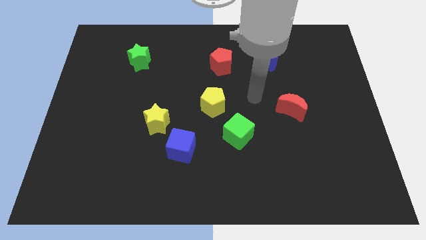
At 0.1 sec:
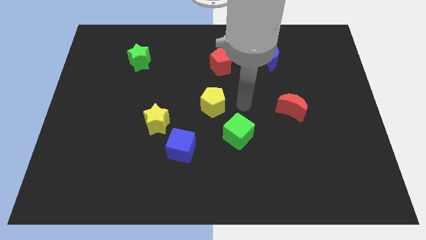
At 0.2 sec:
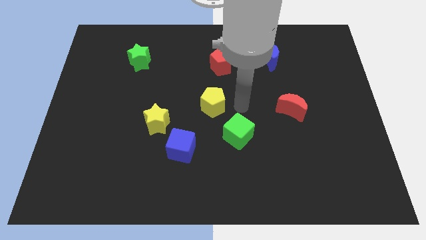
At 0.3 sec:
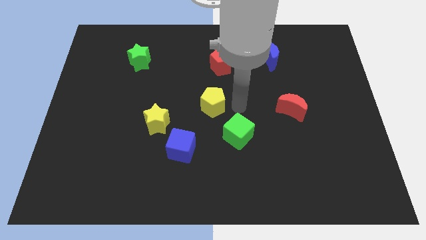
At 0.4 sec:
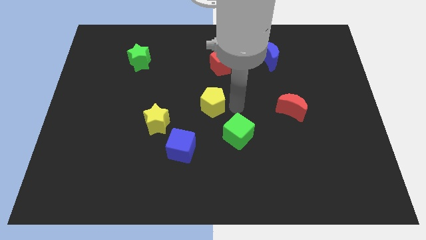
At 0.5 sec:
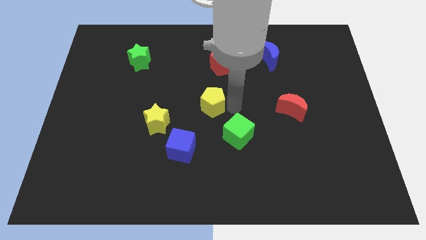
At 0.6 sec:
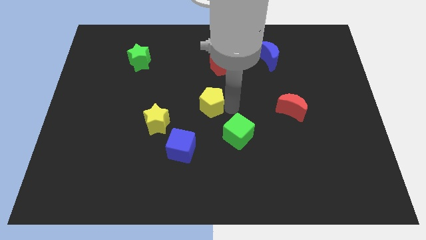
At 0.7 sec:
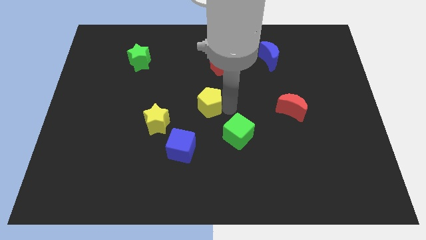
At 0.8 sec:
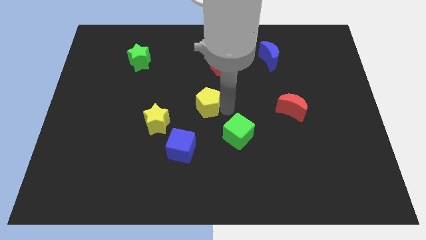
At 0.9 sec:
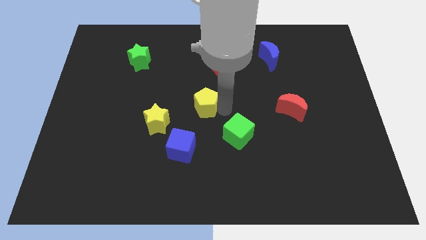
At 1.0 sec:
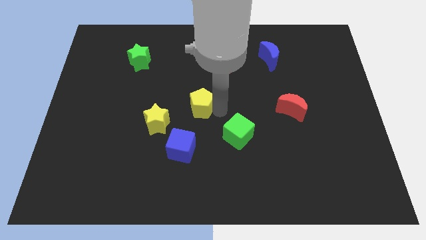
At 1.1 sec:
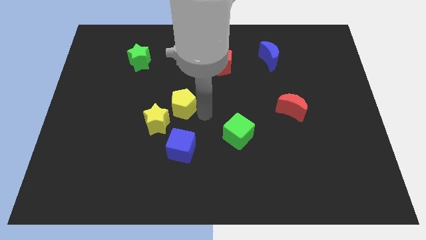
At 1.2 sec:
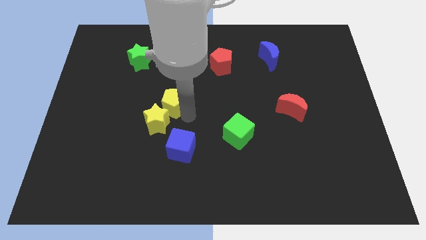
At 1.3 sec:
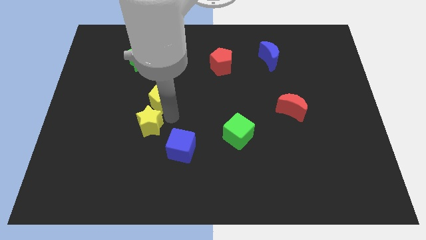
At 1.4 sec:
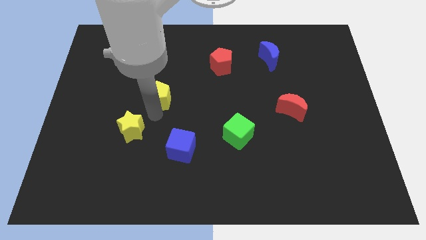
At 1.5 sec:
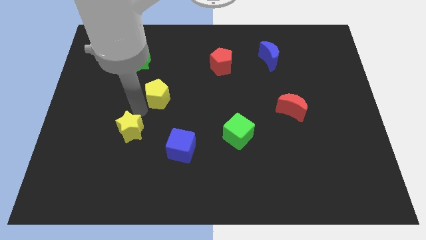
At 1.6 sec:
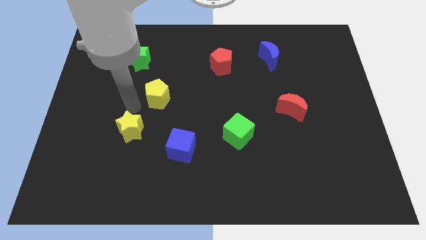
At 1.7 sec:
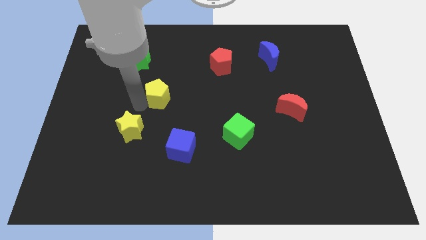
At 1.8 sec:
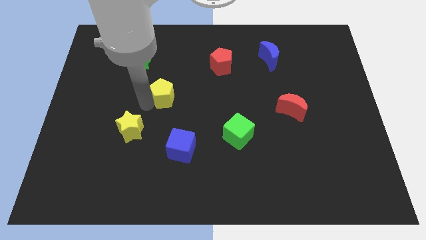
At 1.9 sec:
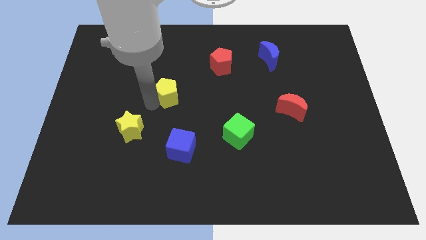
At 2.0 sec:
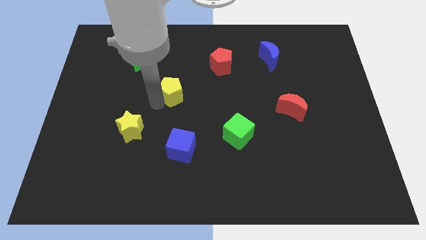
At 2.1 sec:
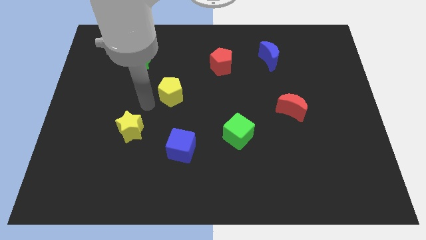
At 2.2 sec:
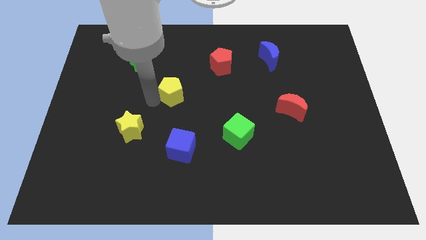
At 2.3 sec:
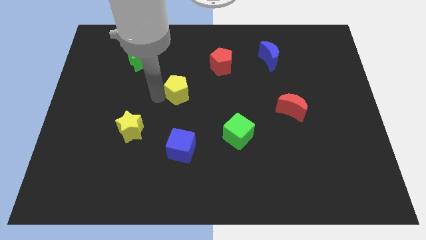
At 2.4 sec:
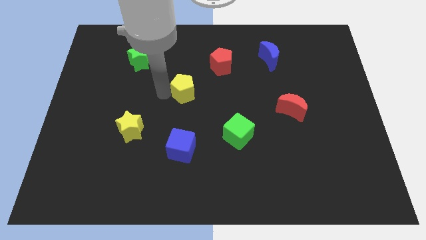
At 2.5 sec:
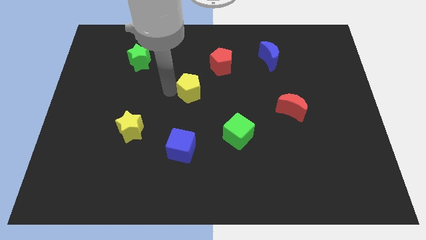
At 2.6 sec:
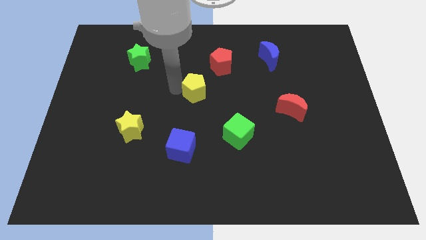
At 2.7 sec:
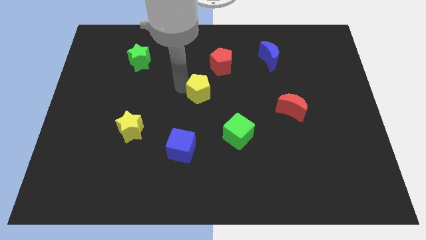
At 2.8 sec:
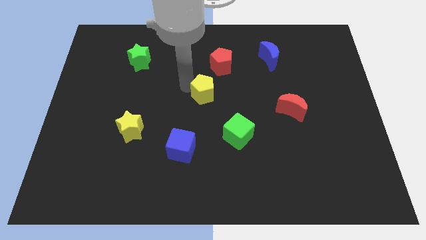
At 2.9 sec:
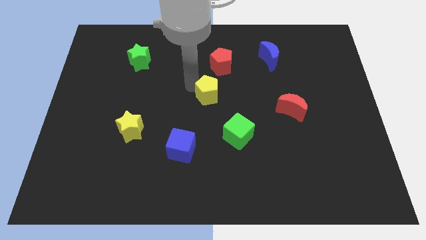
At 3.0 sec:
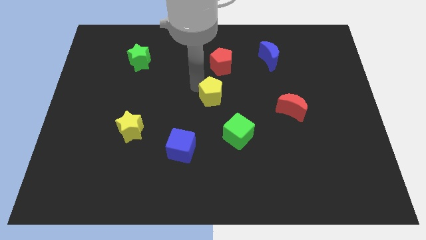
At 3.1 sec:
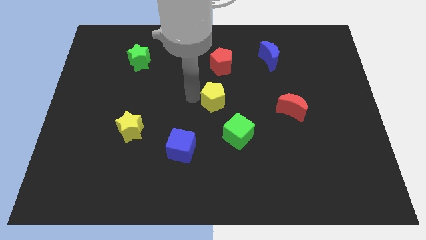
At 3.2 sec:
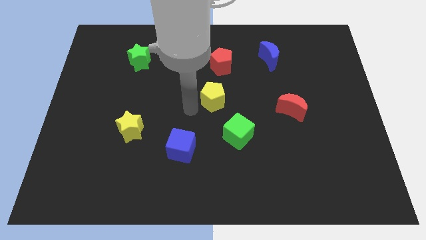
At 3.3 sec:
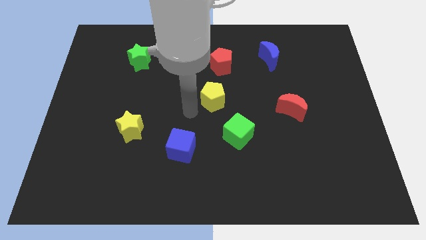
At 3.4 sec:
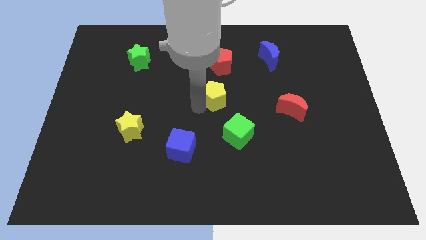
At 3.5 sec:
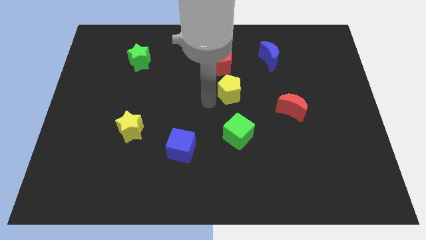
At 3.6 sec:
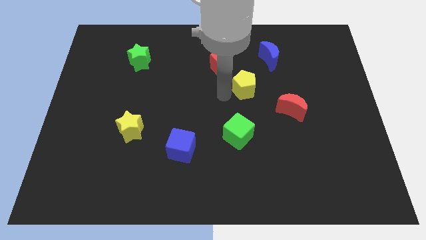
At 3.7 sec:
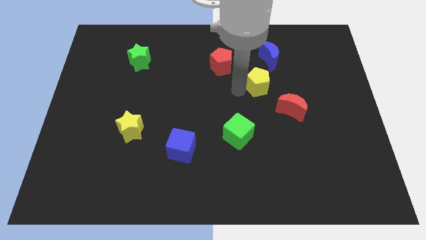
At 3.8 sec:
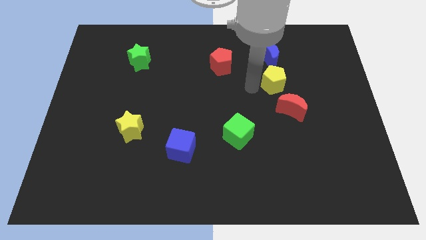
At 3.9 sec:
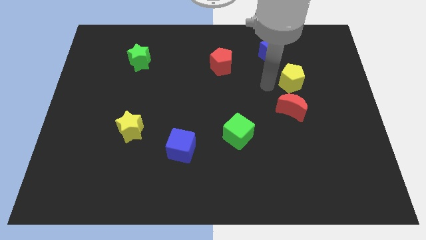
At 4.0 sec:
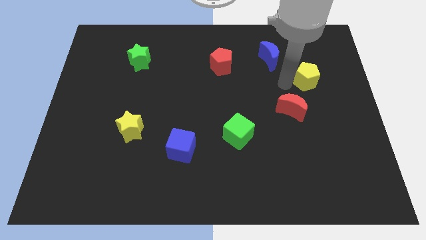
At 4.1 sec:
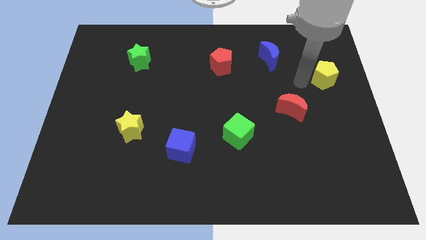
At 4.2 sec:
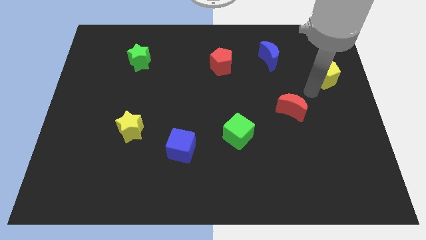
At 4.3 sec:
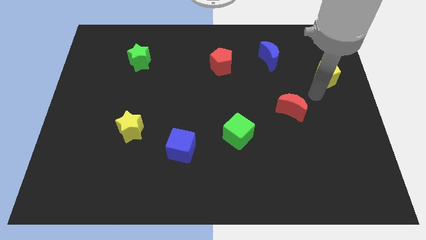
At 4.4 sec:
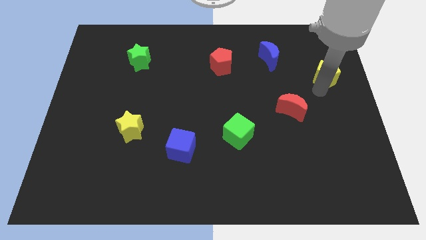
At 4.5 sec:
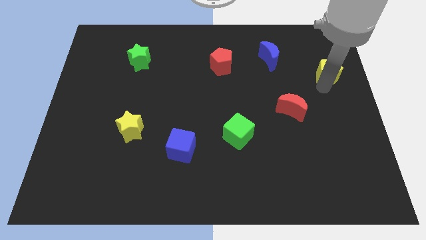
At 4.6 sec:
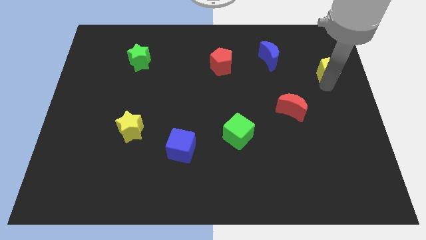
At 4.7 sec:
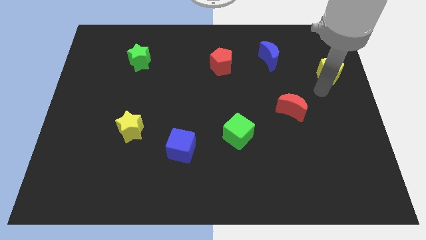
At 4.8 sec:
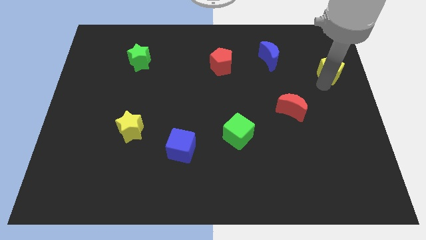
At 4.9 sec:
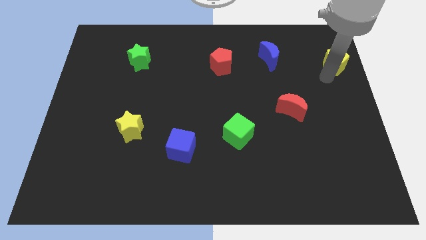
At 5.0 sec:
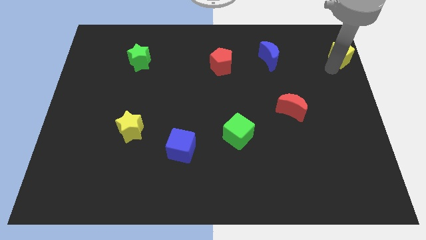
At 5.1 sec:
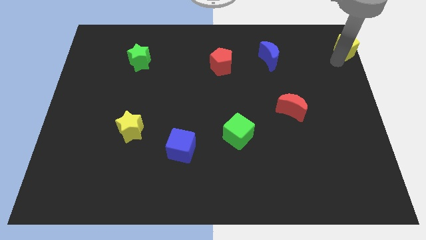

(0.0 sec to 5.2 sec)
put the yellow pentagon to the upper right corner

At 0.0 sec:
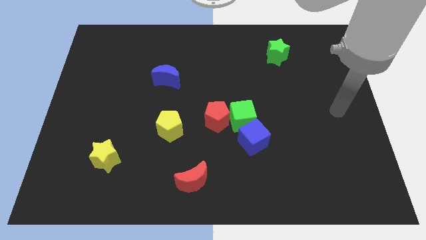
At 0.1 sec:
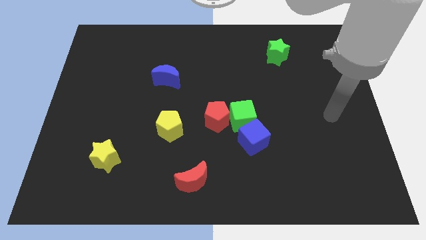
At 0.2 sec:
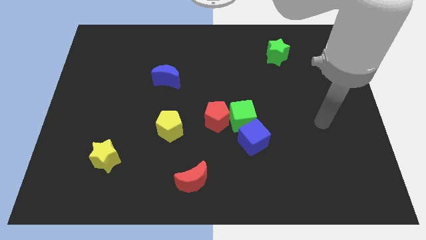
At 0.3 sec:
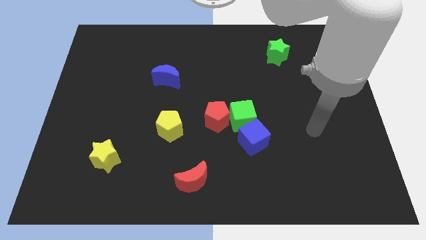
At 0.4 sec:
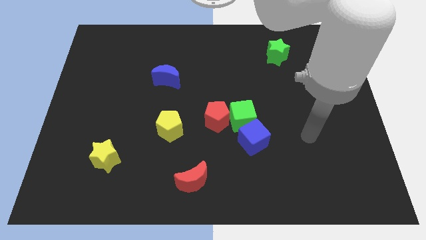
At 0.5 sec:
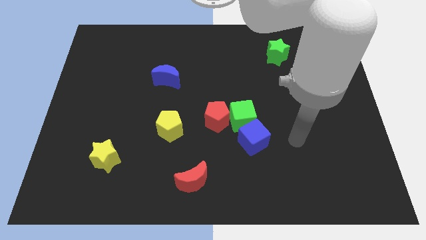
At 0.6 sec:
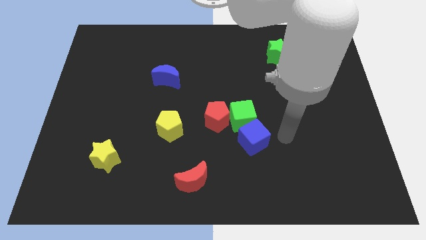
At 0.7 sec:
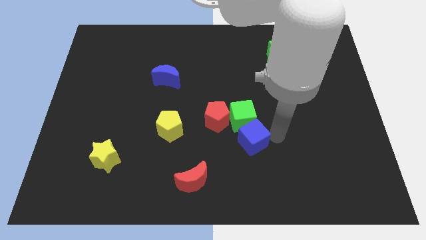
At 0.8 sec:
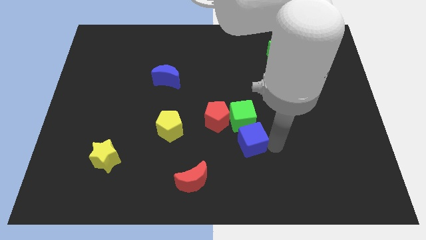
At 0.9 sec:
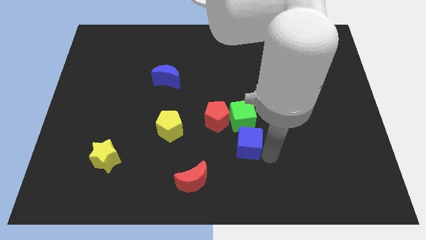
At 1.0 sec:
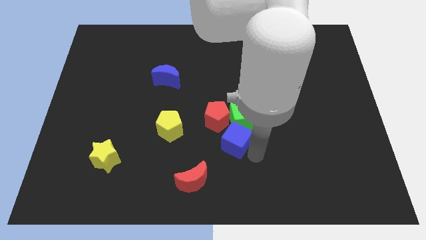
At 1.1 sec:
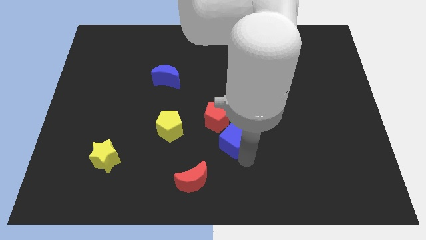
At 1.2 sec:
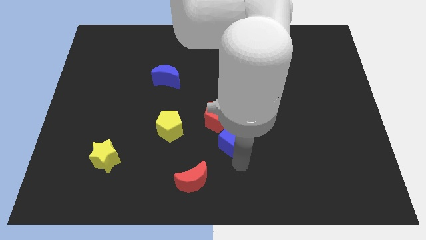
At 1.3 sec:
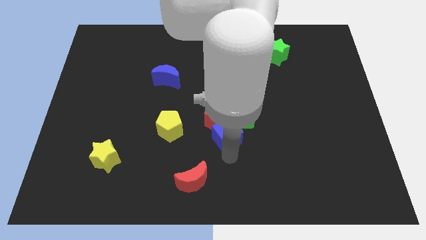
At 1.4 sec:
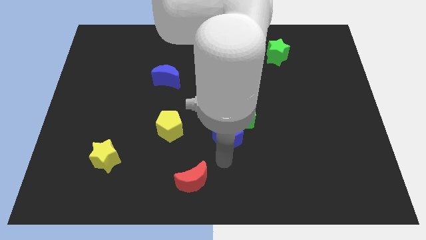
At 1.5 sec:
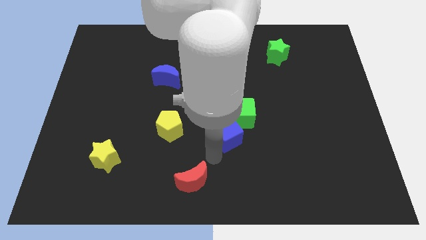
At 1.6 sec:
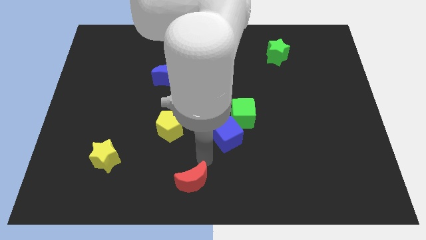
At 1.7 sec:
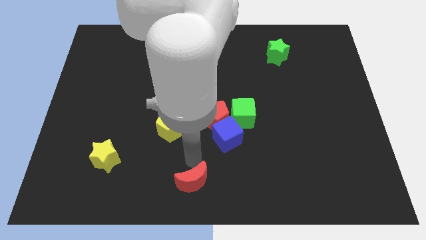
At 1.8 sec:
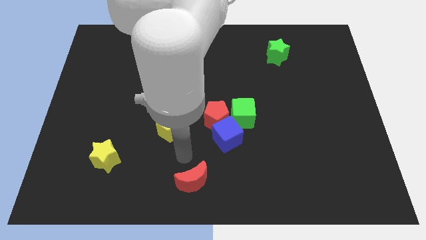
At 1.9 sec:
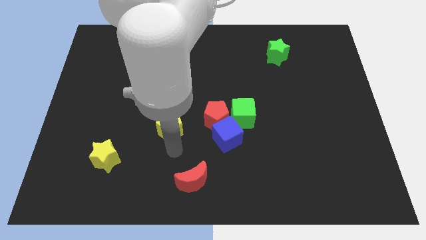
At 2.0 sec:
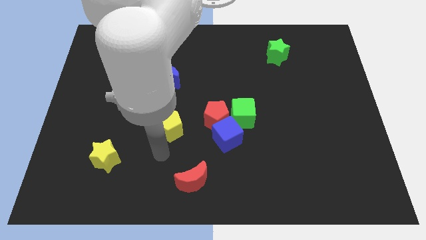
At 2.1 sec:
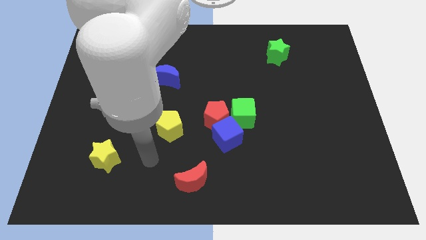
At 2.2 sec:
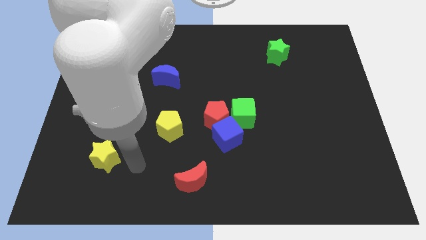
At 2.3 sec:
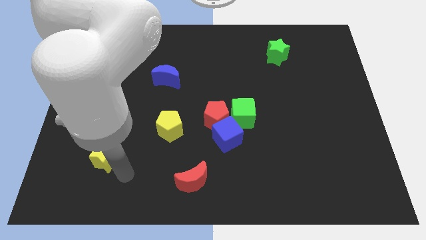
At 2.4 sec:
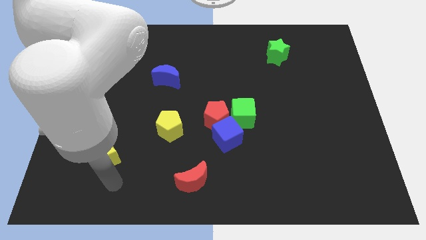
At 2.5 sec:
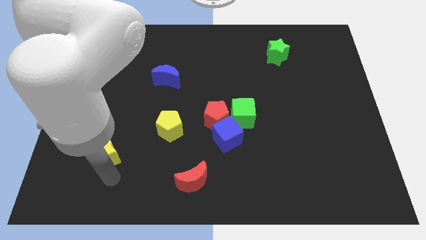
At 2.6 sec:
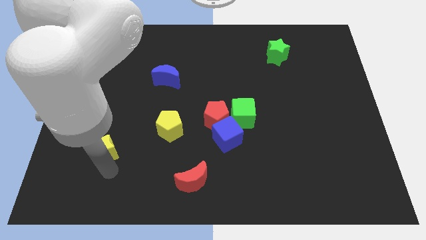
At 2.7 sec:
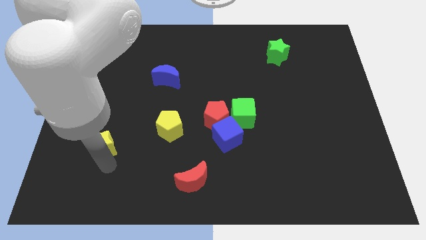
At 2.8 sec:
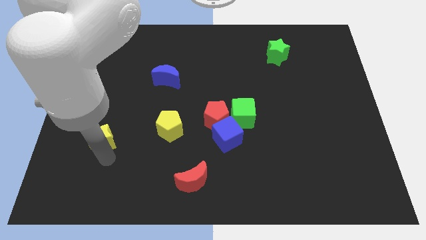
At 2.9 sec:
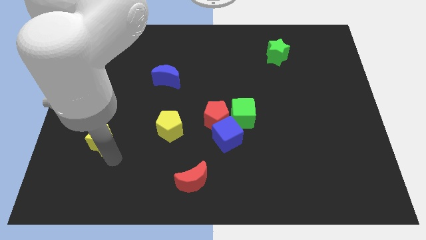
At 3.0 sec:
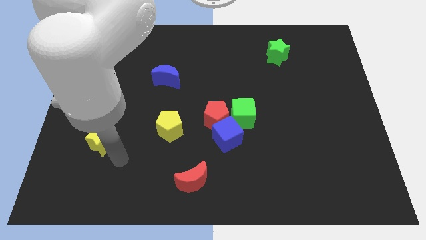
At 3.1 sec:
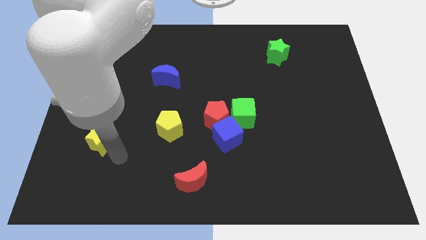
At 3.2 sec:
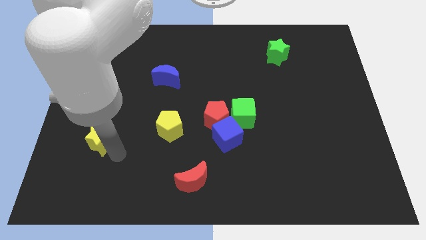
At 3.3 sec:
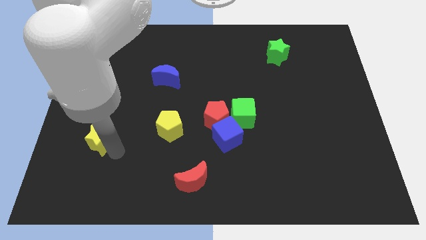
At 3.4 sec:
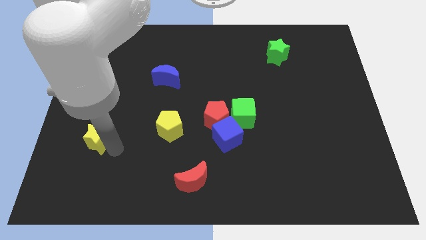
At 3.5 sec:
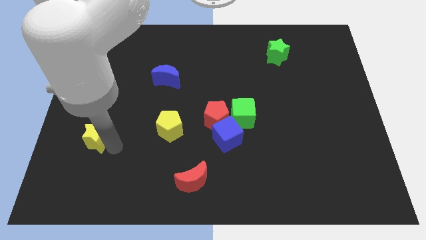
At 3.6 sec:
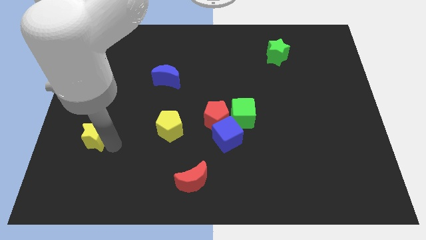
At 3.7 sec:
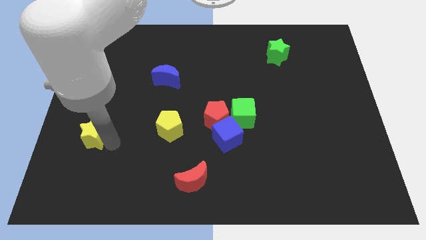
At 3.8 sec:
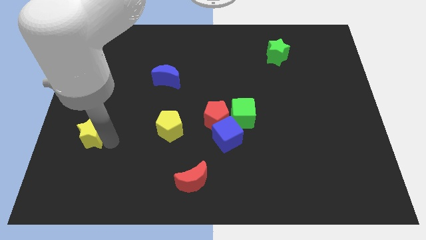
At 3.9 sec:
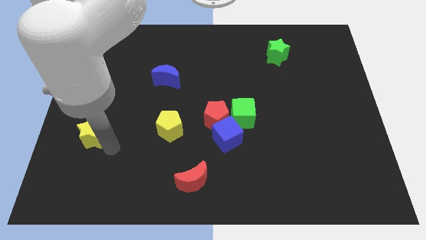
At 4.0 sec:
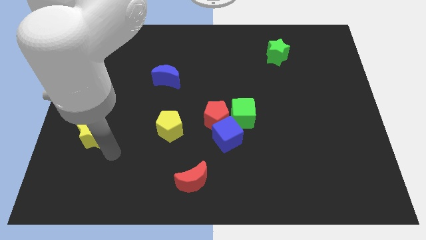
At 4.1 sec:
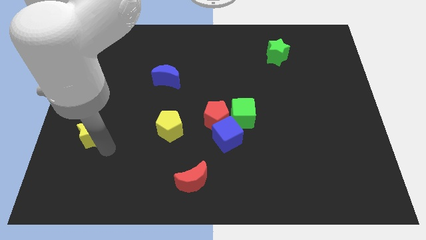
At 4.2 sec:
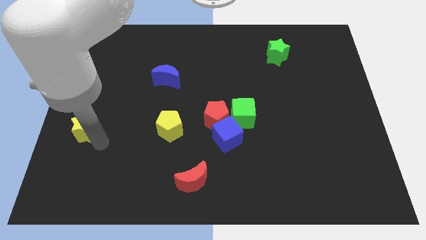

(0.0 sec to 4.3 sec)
put the yellow star to the center left
